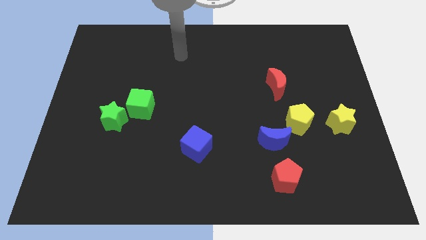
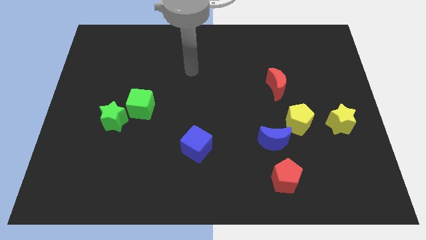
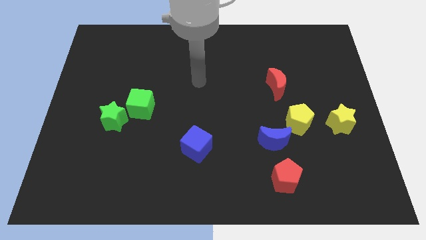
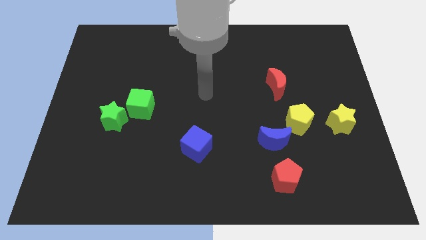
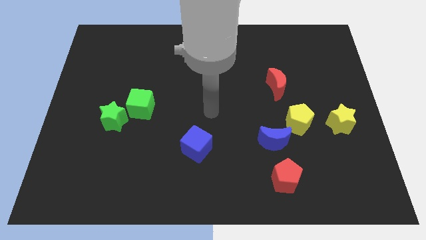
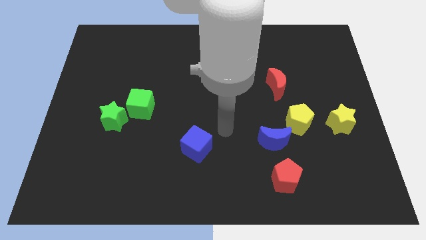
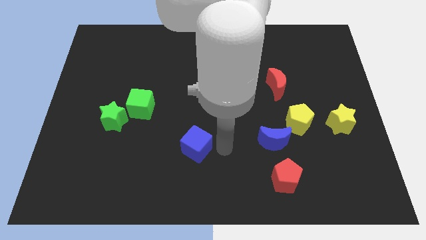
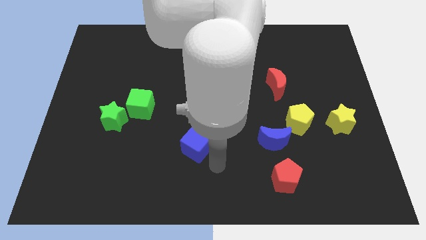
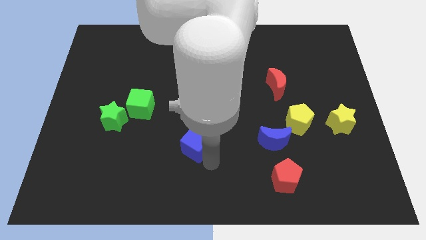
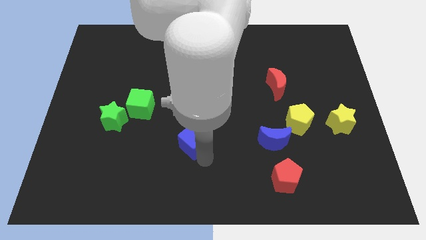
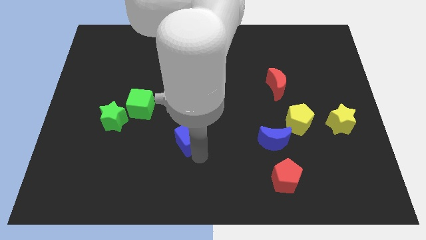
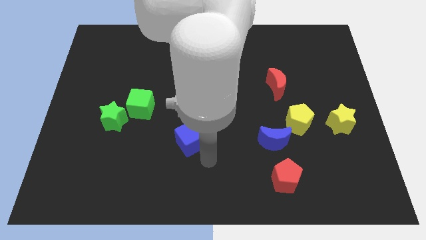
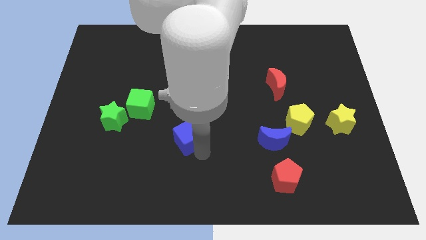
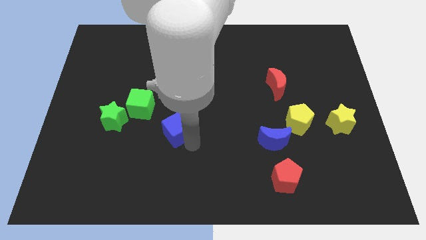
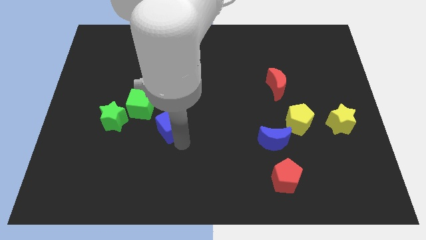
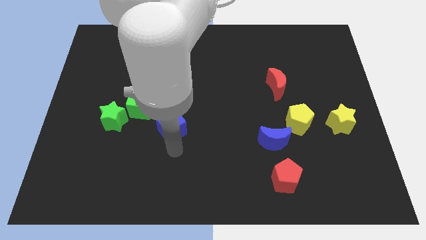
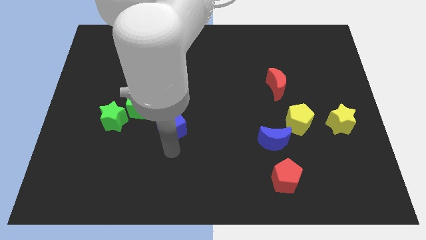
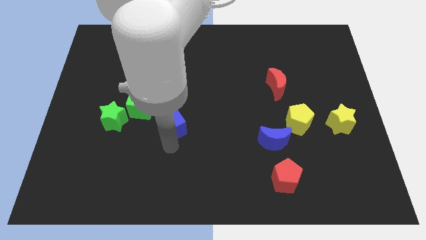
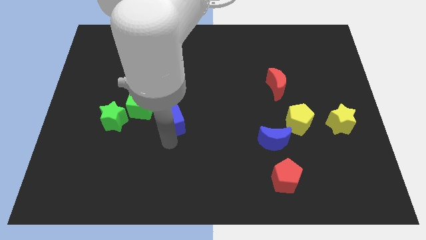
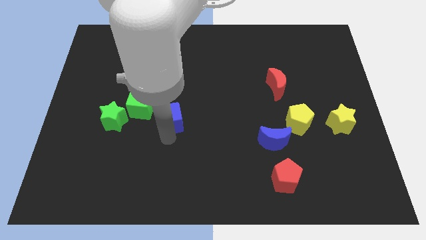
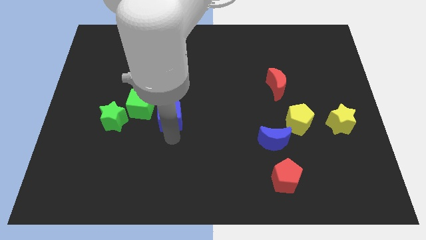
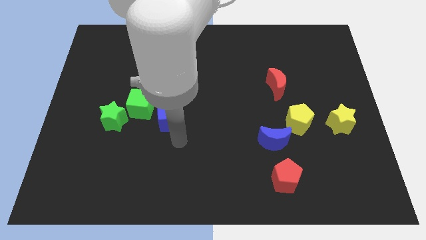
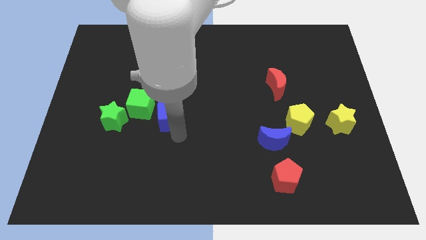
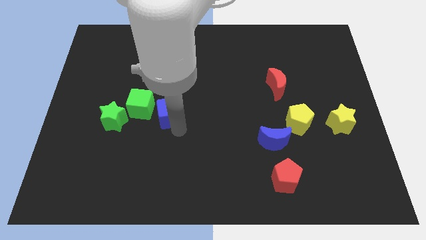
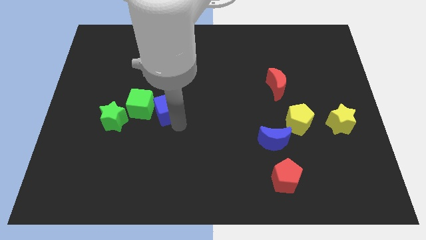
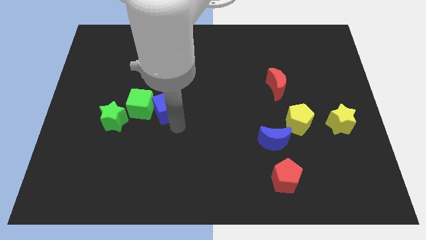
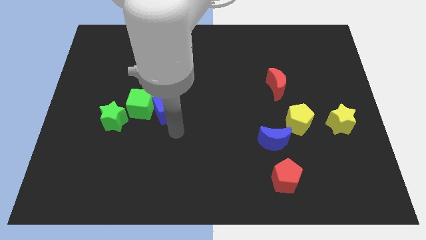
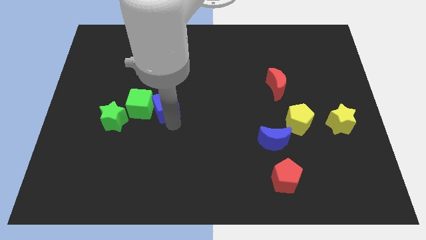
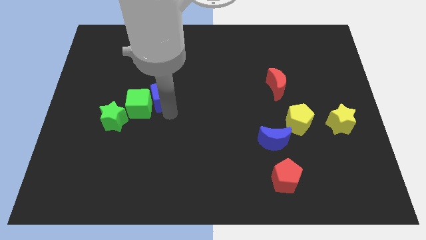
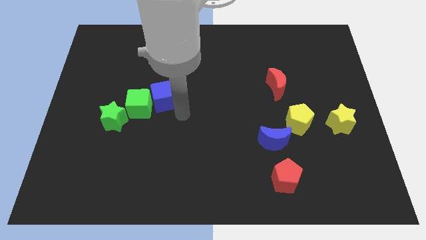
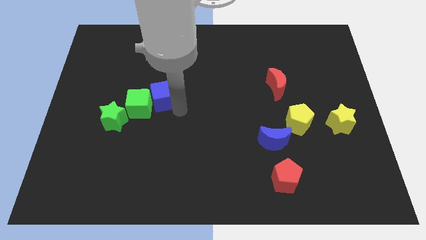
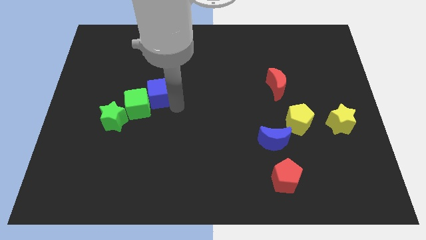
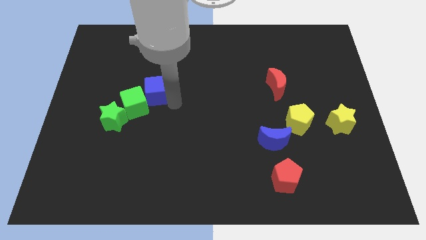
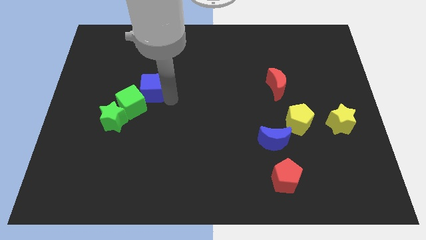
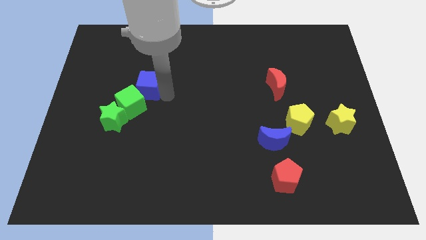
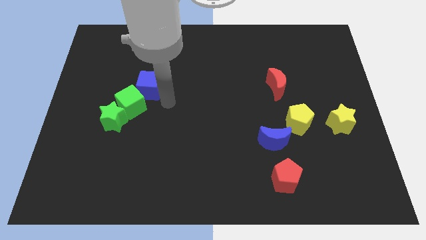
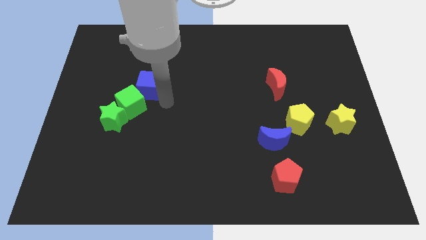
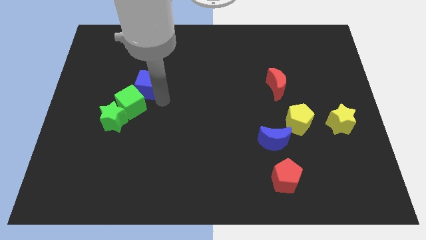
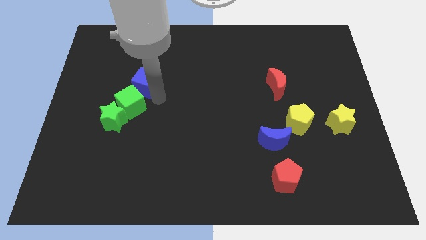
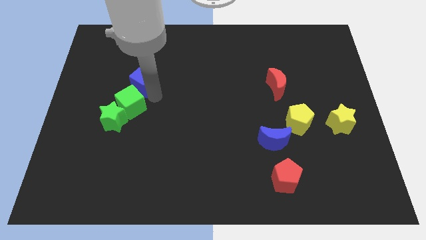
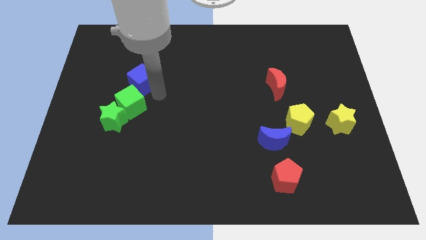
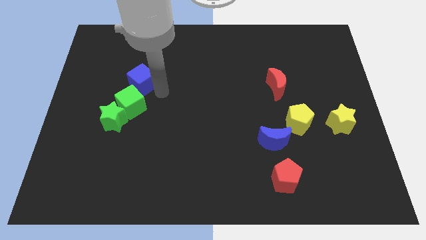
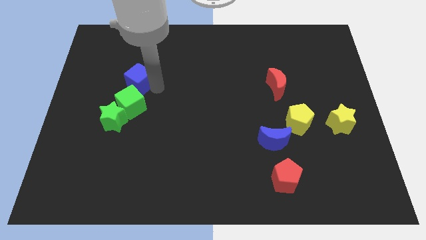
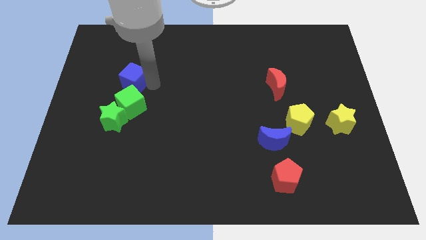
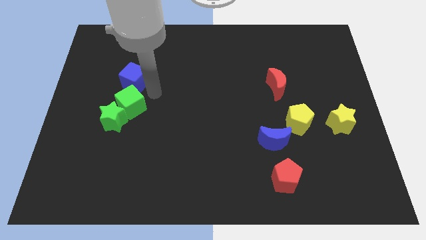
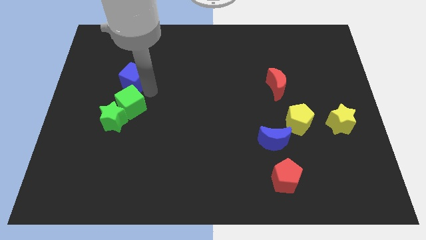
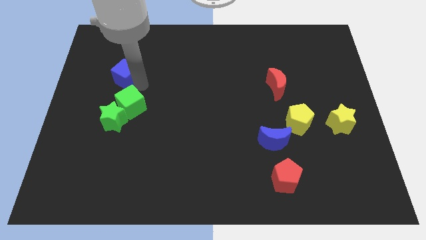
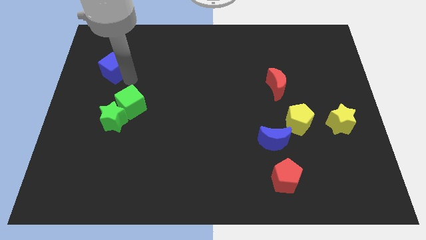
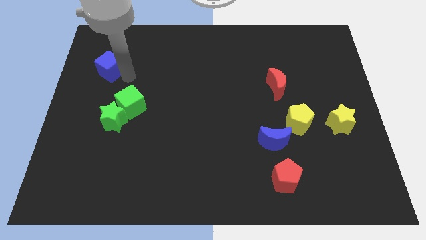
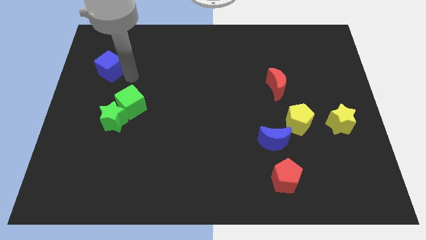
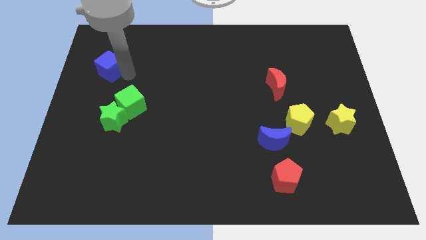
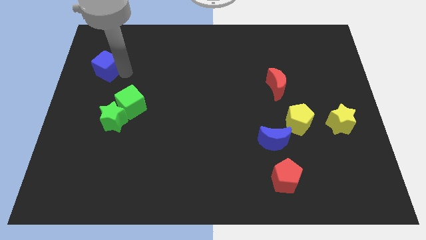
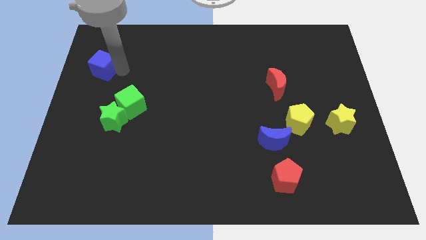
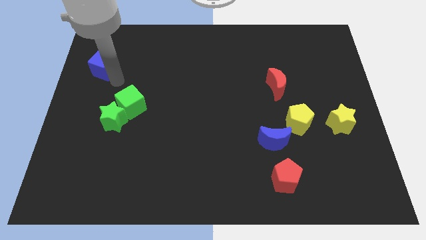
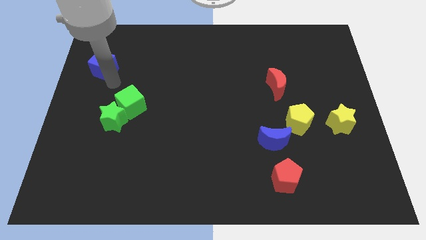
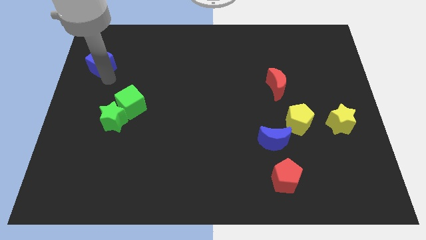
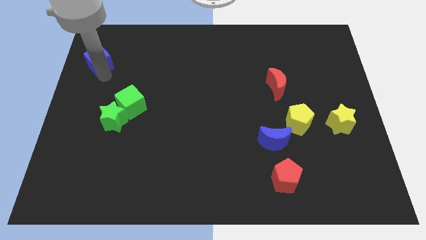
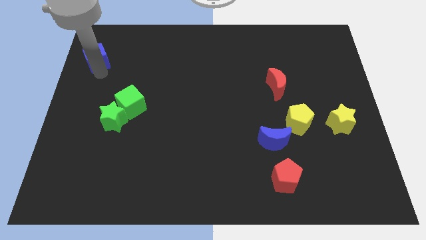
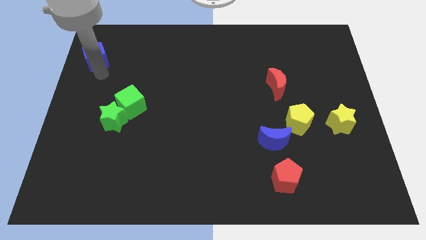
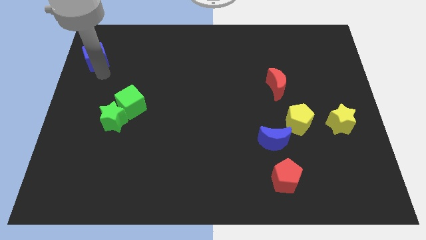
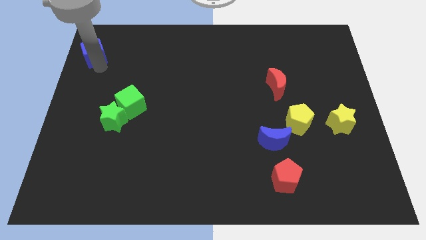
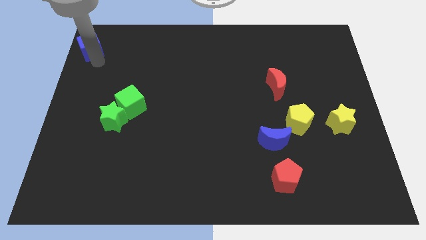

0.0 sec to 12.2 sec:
move the blue cube to the top left corner

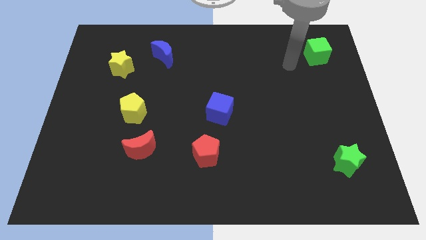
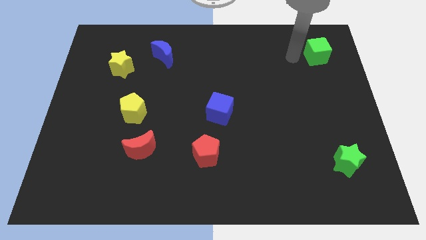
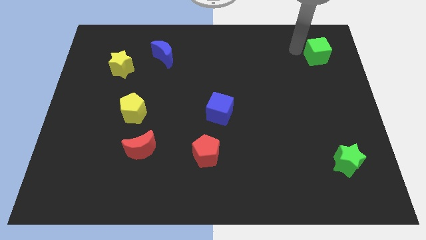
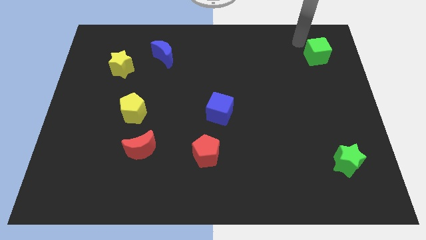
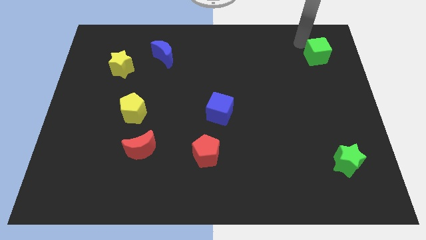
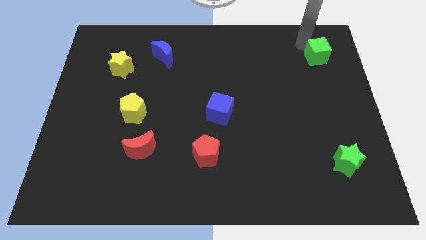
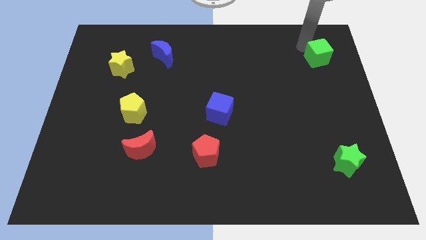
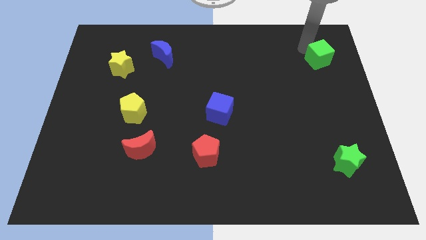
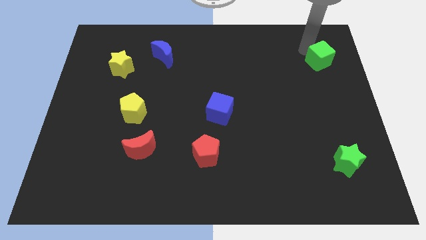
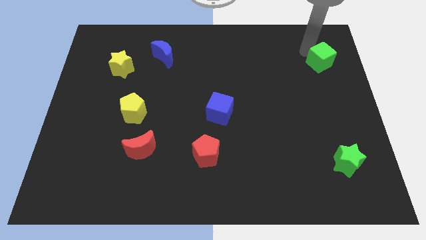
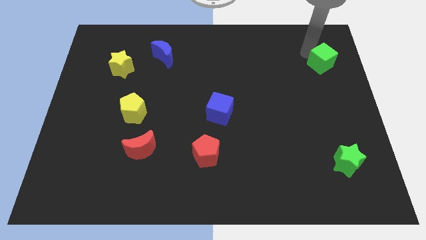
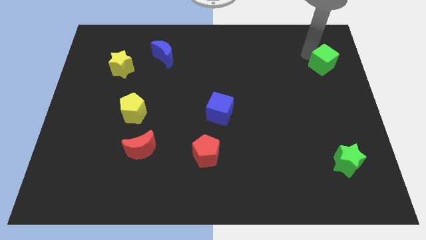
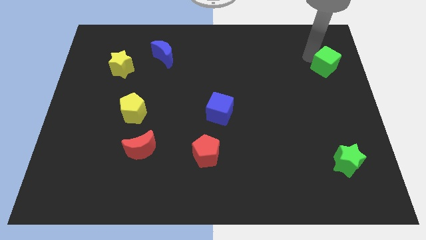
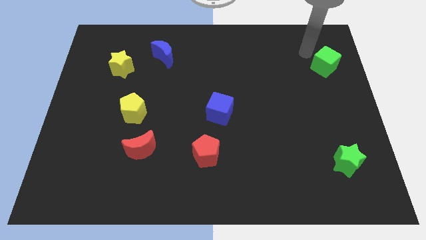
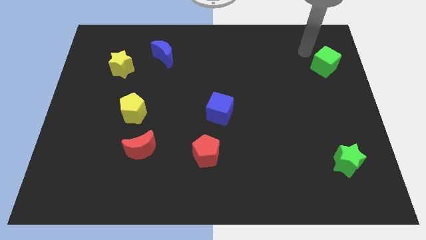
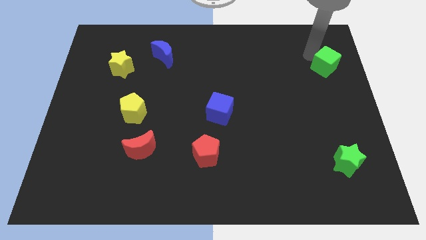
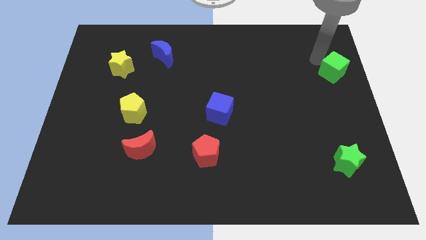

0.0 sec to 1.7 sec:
push the green cube to the right side

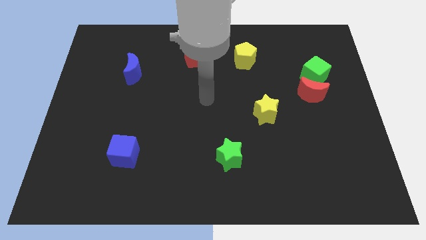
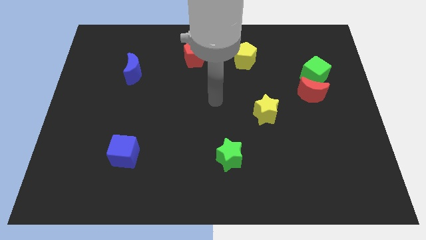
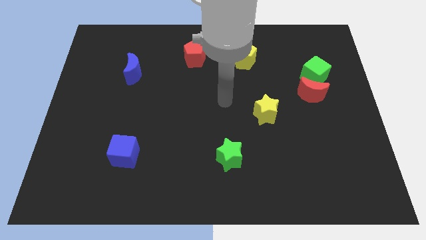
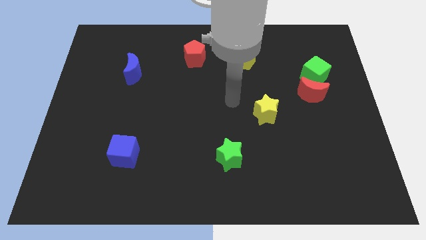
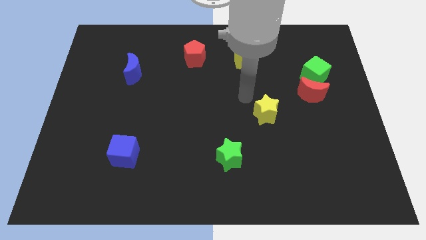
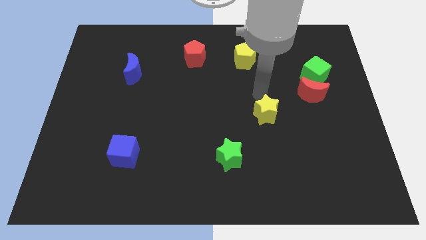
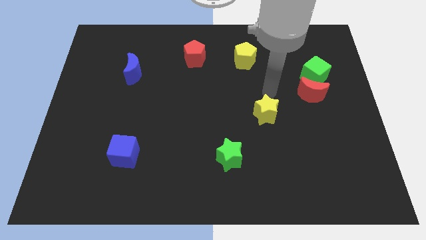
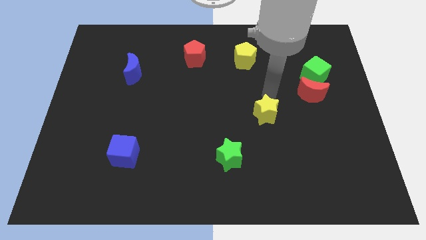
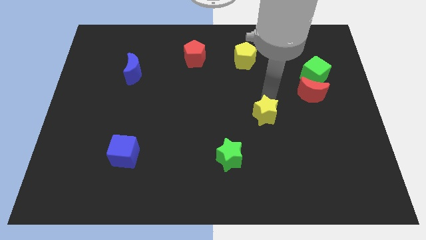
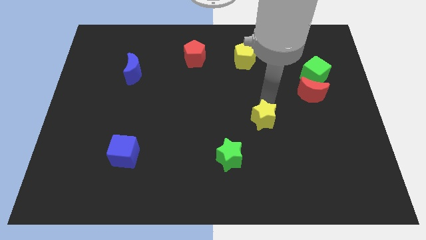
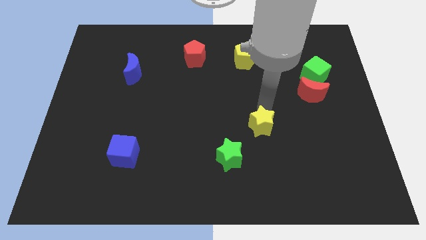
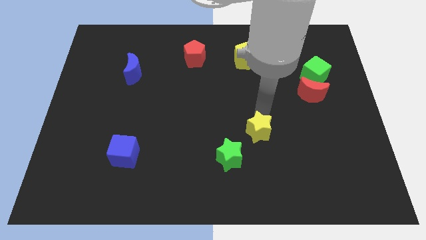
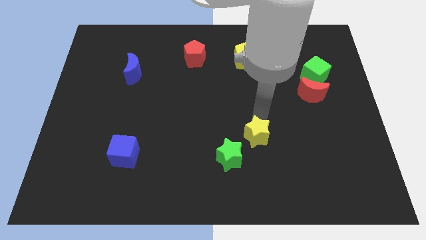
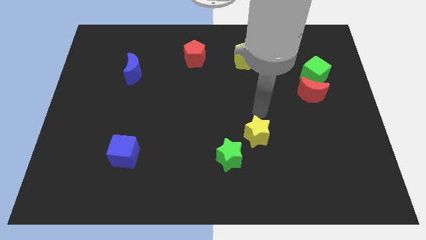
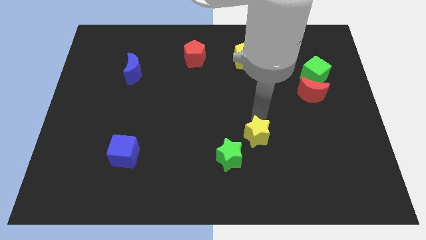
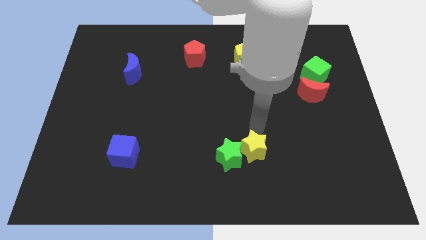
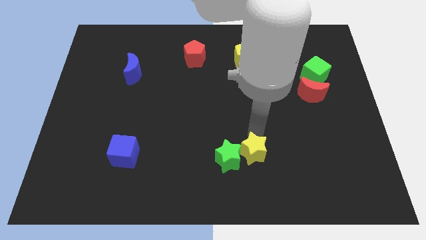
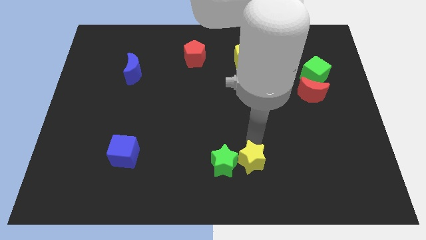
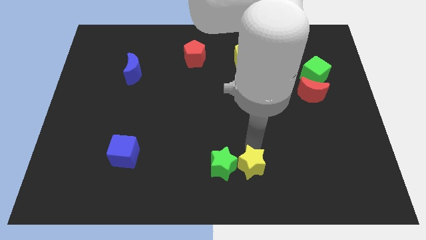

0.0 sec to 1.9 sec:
slide the yellow star to the bottom side
